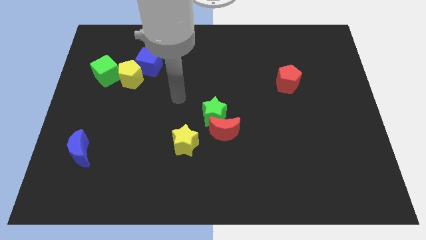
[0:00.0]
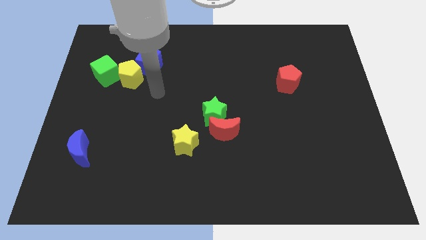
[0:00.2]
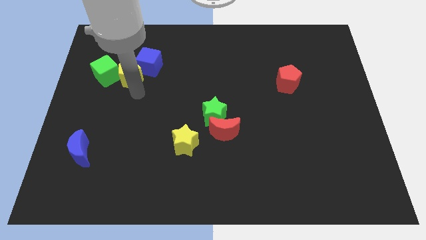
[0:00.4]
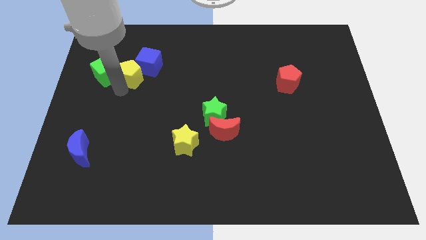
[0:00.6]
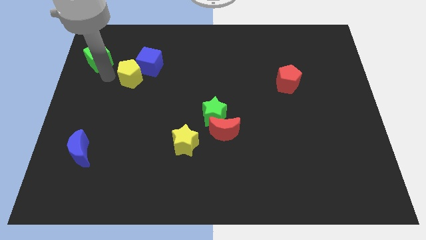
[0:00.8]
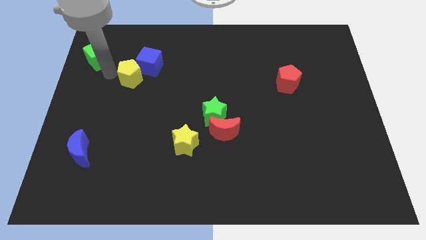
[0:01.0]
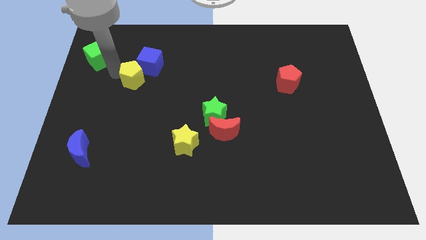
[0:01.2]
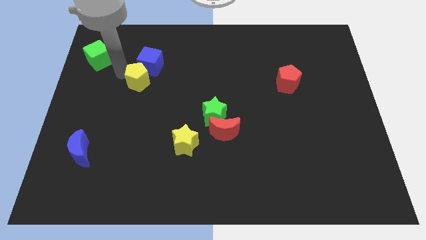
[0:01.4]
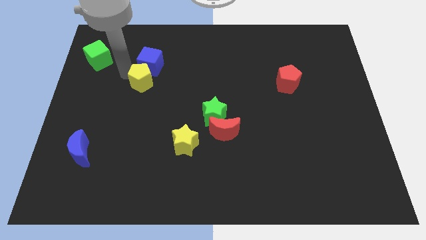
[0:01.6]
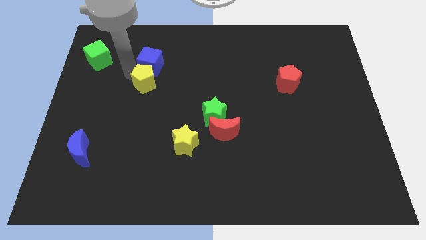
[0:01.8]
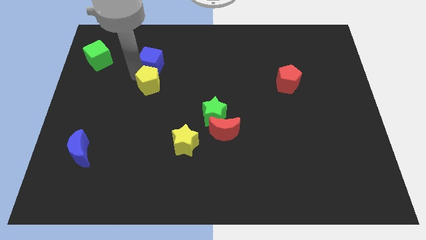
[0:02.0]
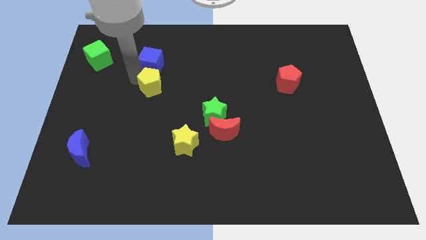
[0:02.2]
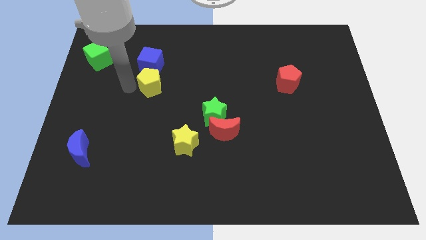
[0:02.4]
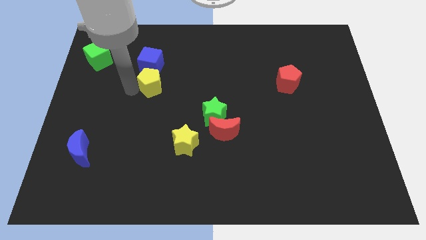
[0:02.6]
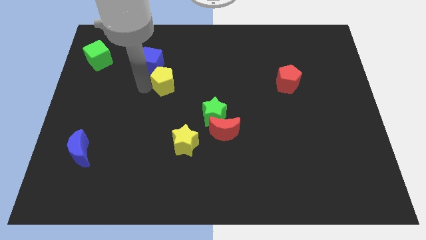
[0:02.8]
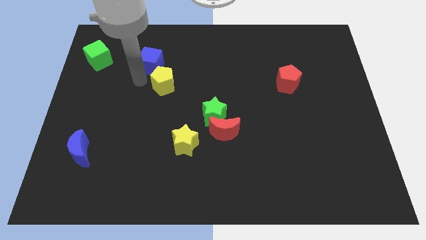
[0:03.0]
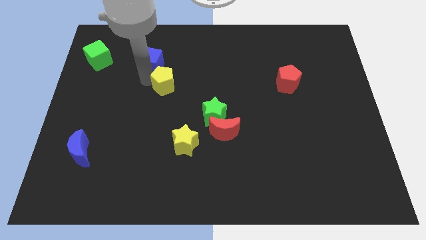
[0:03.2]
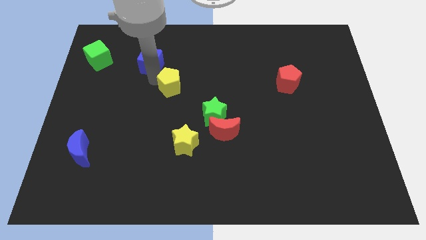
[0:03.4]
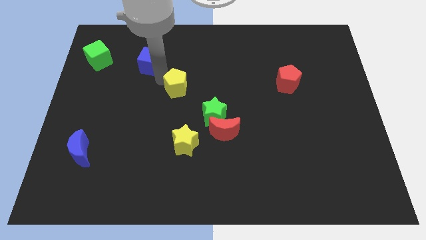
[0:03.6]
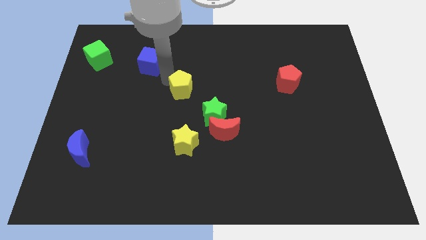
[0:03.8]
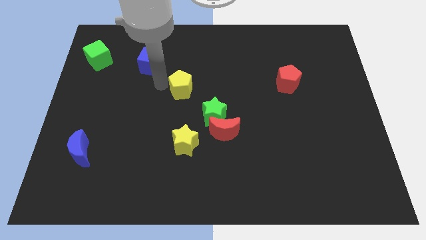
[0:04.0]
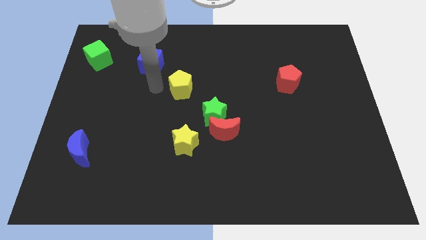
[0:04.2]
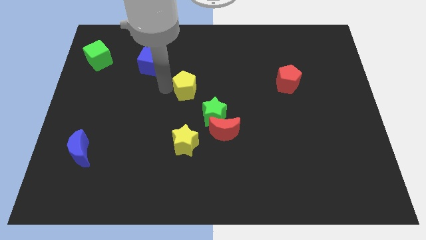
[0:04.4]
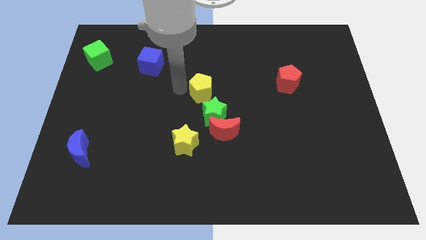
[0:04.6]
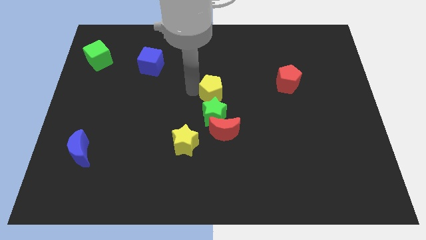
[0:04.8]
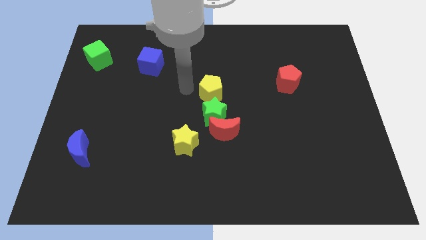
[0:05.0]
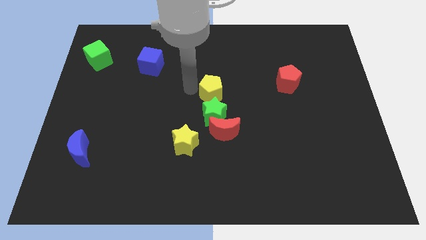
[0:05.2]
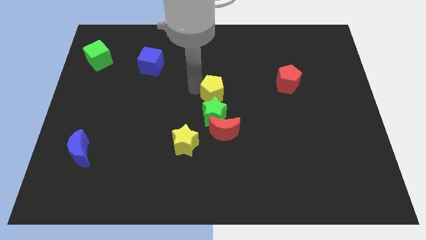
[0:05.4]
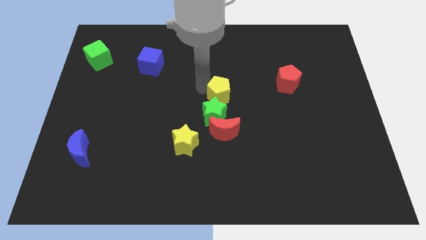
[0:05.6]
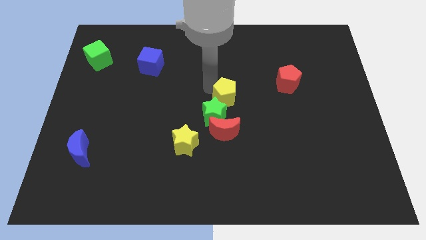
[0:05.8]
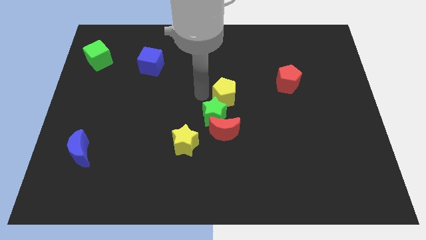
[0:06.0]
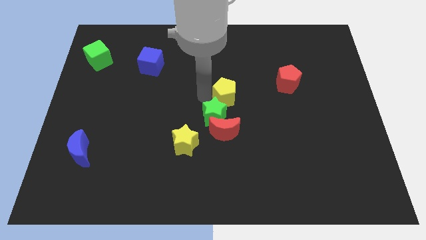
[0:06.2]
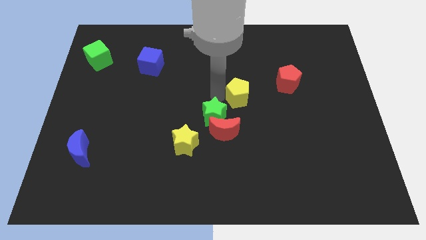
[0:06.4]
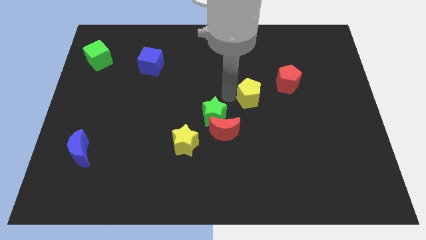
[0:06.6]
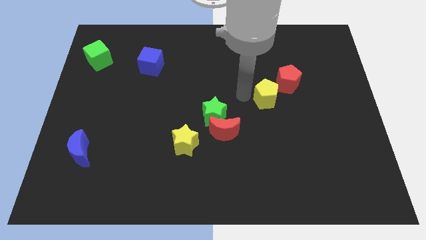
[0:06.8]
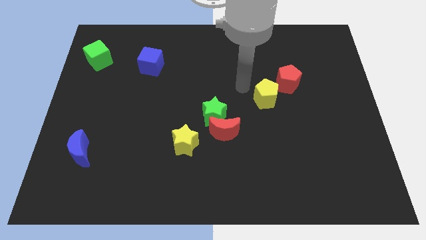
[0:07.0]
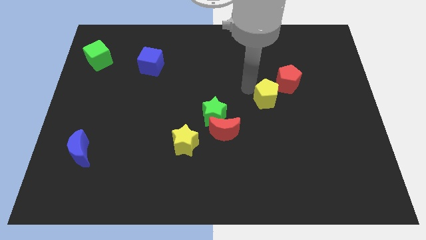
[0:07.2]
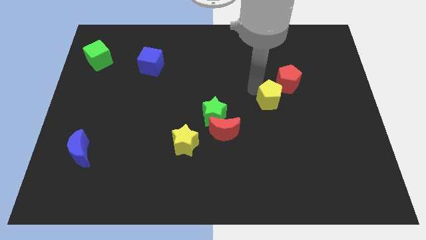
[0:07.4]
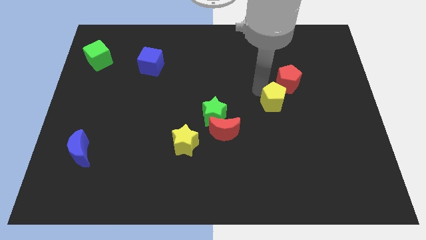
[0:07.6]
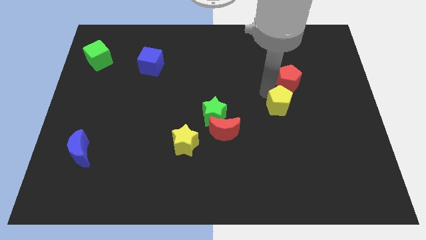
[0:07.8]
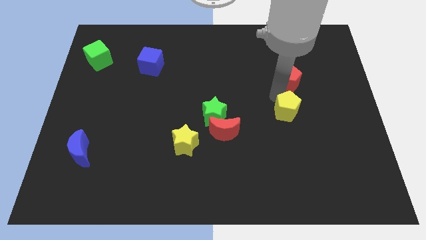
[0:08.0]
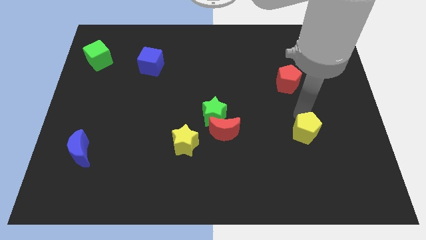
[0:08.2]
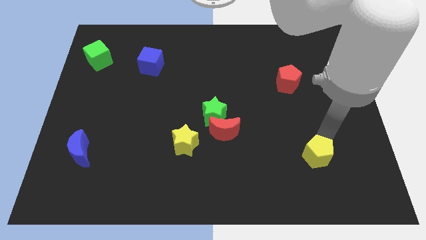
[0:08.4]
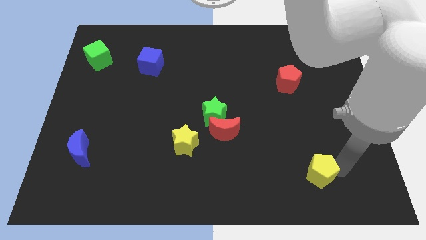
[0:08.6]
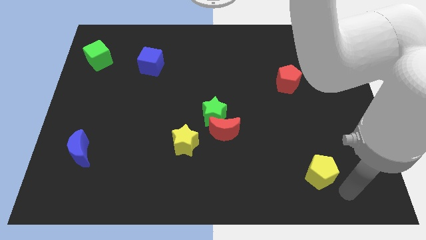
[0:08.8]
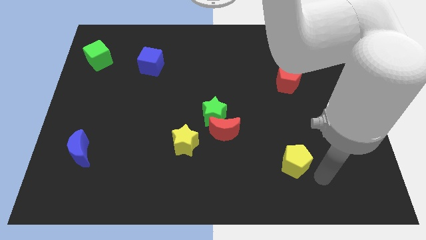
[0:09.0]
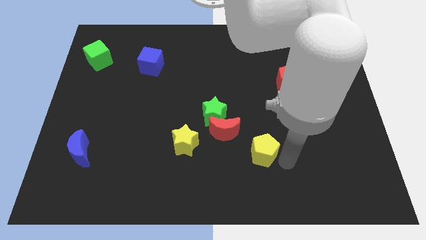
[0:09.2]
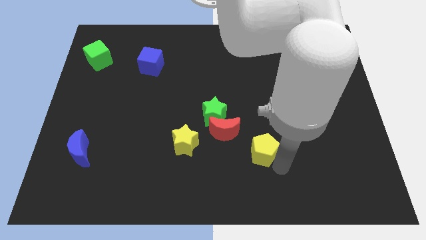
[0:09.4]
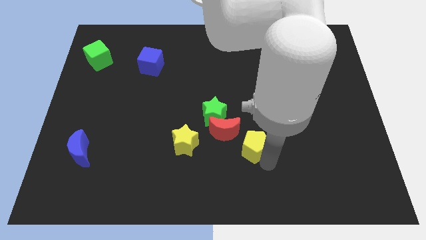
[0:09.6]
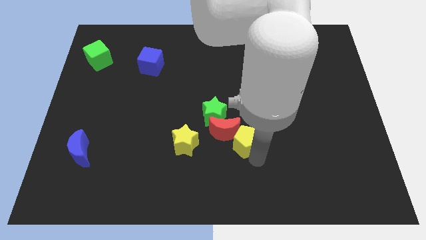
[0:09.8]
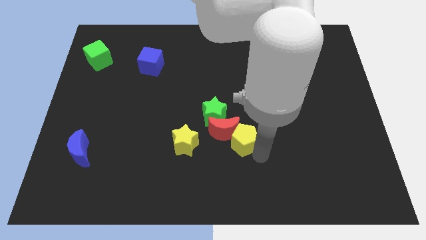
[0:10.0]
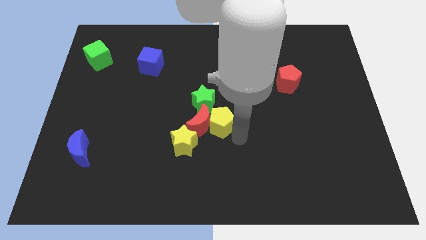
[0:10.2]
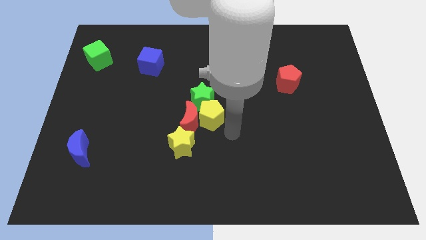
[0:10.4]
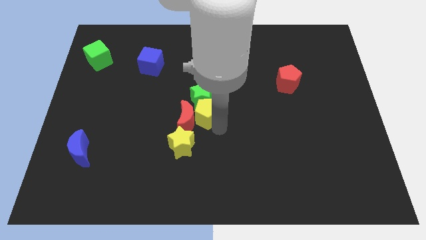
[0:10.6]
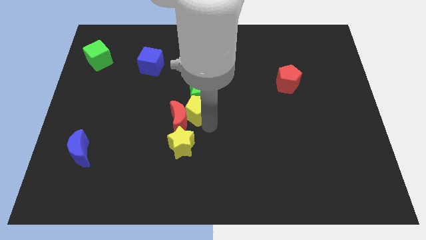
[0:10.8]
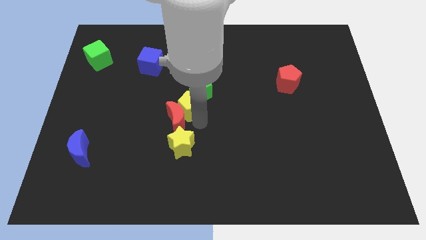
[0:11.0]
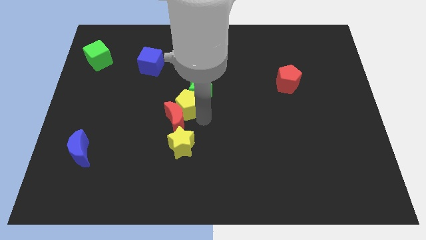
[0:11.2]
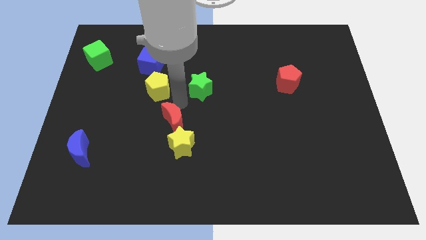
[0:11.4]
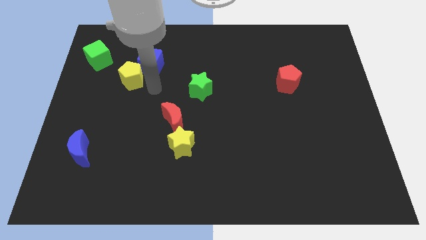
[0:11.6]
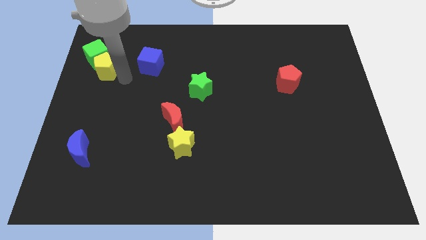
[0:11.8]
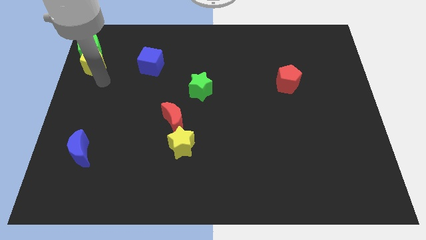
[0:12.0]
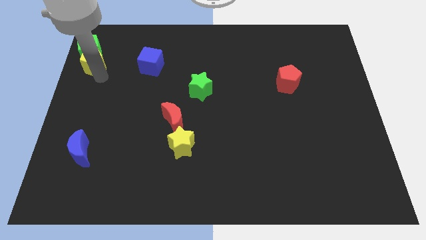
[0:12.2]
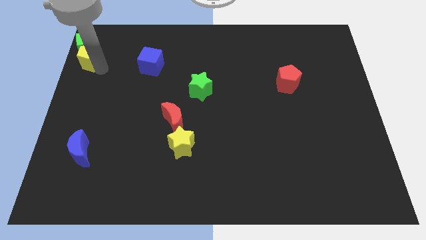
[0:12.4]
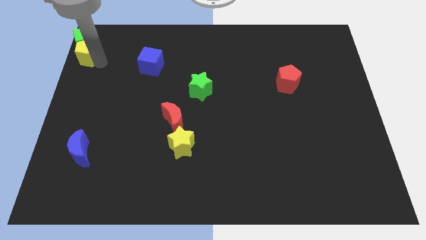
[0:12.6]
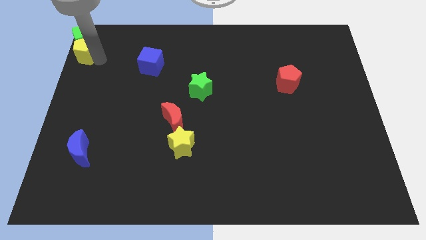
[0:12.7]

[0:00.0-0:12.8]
move the yellow pentagon to the upper left corner
